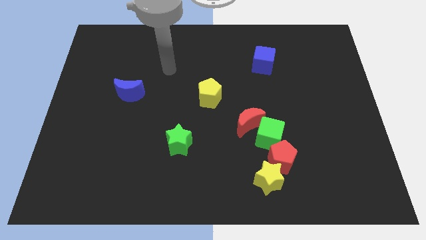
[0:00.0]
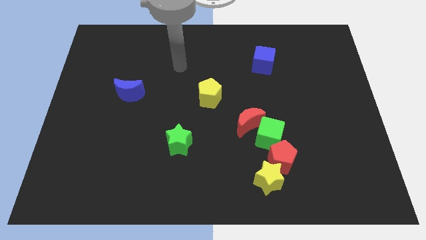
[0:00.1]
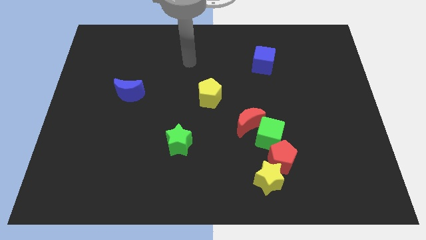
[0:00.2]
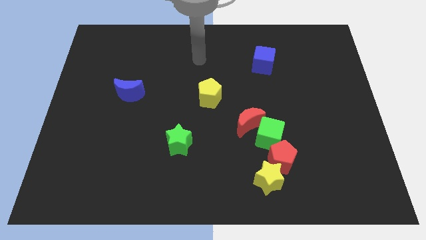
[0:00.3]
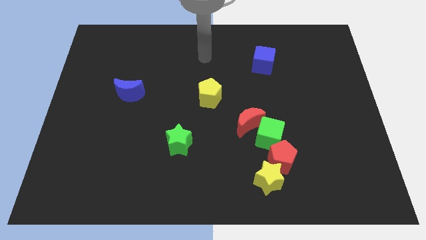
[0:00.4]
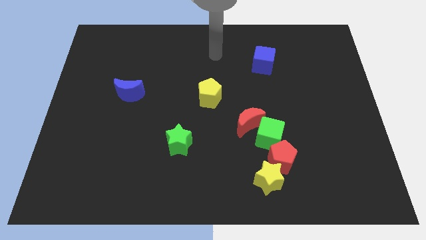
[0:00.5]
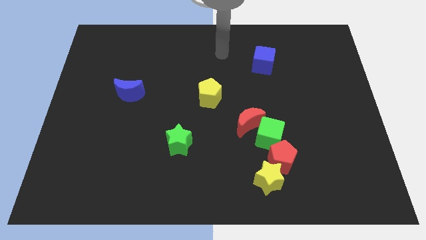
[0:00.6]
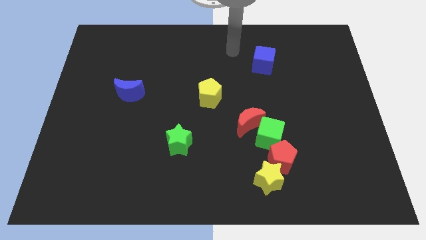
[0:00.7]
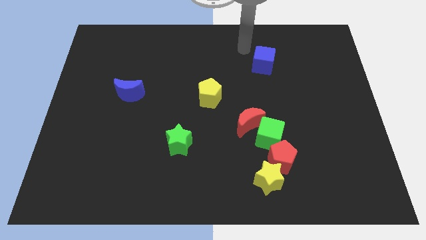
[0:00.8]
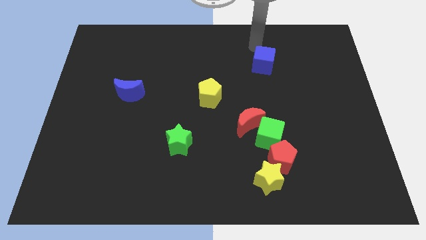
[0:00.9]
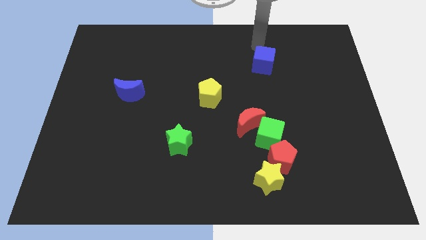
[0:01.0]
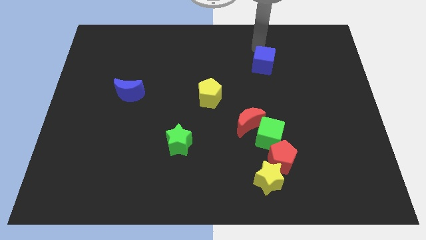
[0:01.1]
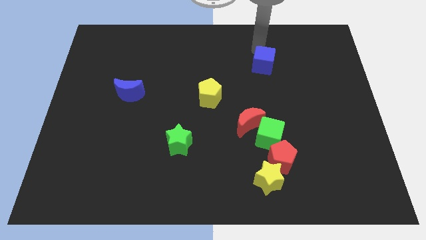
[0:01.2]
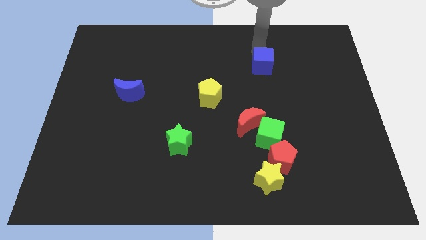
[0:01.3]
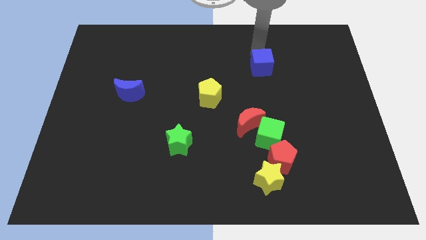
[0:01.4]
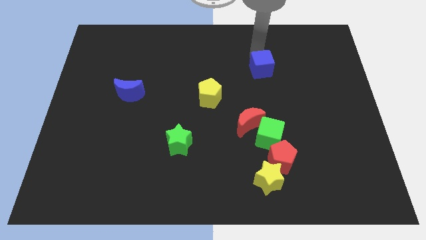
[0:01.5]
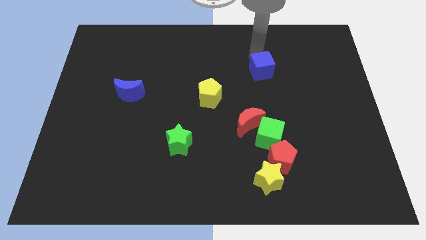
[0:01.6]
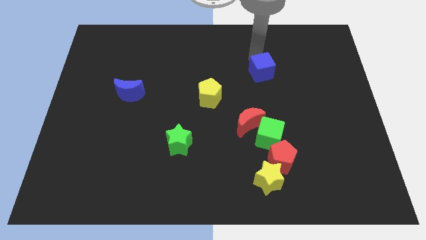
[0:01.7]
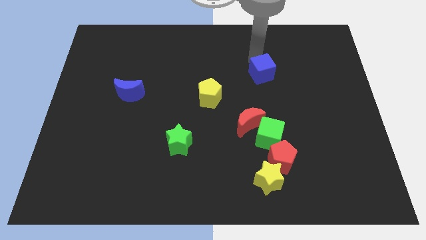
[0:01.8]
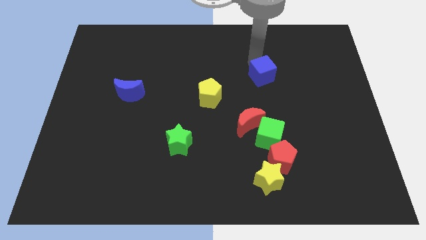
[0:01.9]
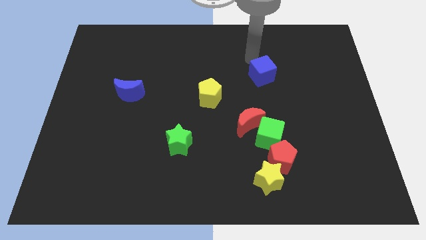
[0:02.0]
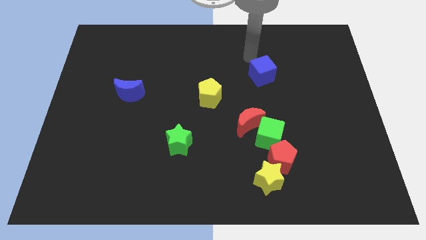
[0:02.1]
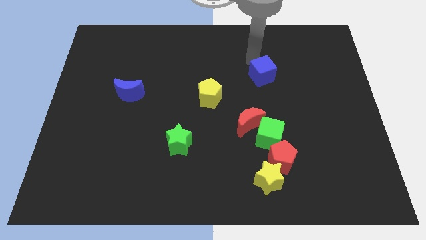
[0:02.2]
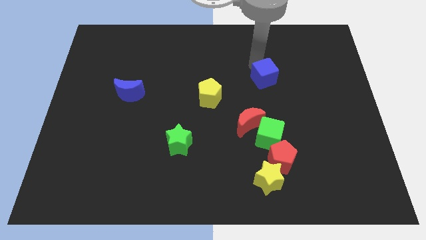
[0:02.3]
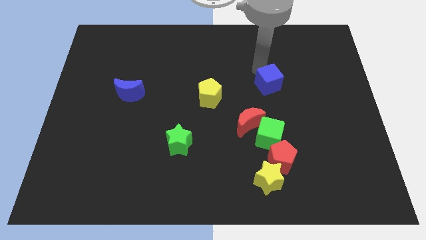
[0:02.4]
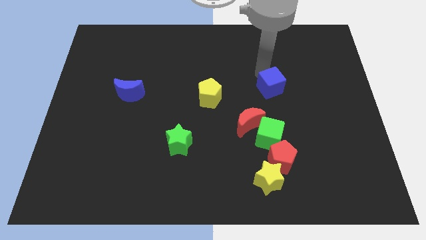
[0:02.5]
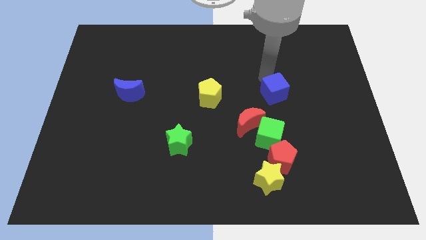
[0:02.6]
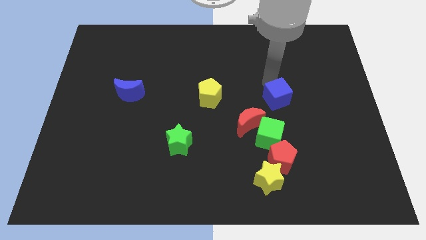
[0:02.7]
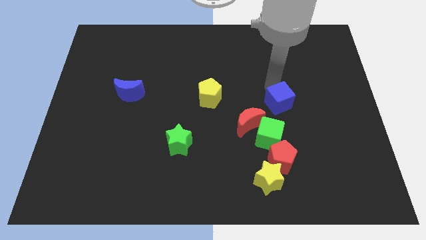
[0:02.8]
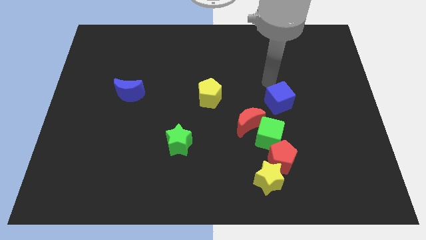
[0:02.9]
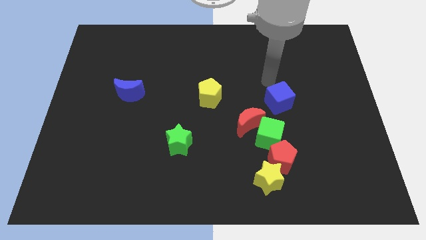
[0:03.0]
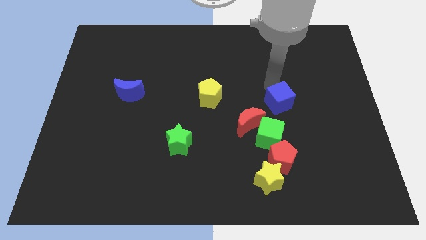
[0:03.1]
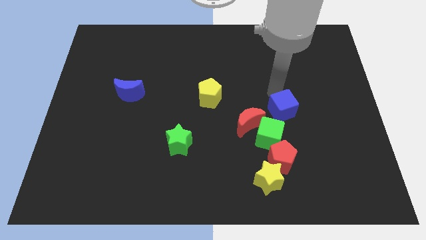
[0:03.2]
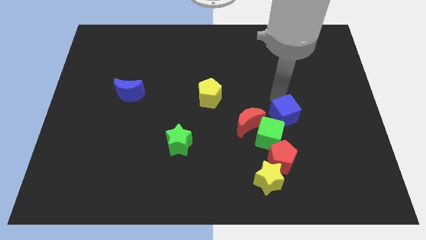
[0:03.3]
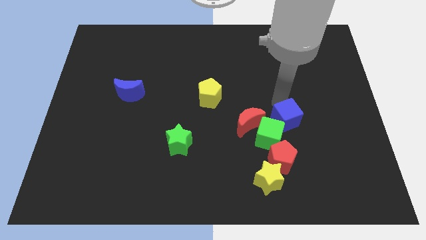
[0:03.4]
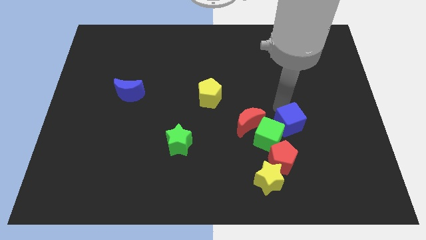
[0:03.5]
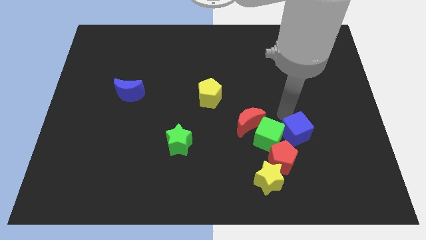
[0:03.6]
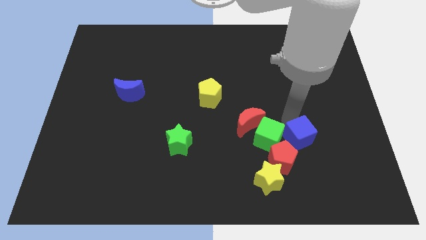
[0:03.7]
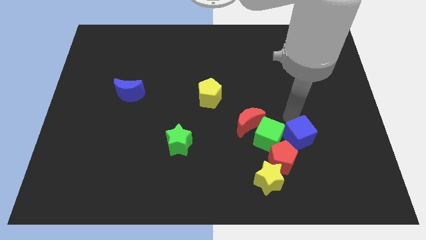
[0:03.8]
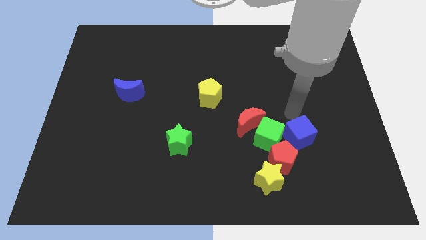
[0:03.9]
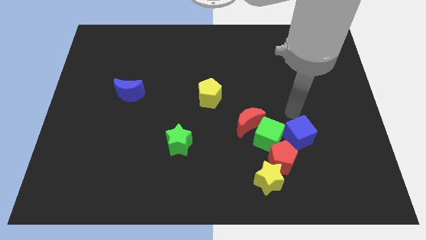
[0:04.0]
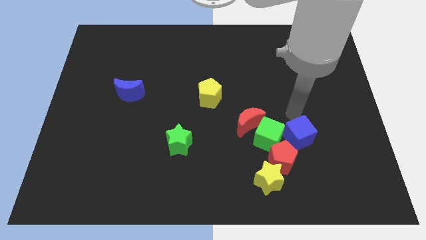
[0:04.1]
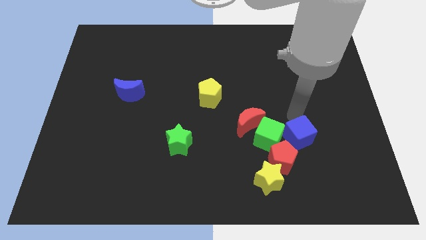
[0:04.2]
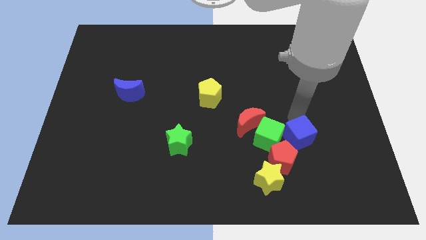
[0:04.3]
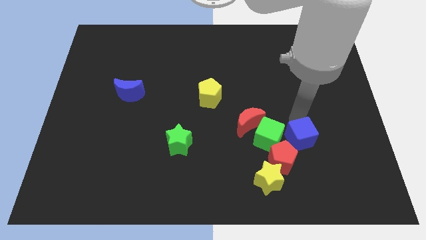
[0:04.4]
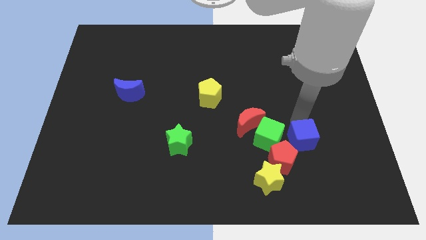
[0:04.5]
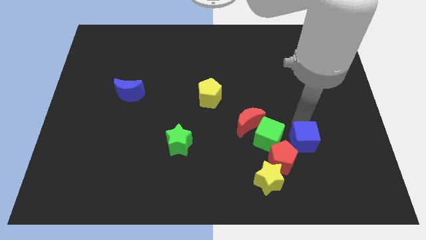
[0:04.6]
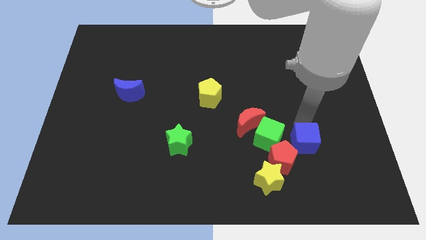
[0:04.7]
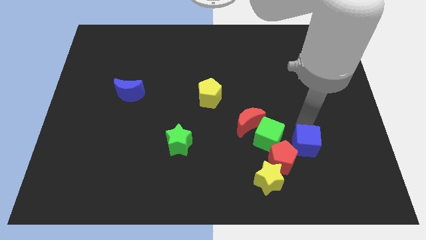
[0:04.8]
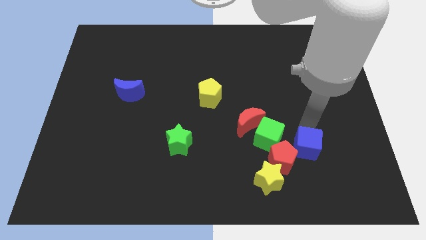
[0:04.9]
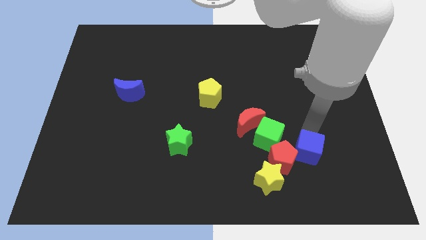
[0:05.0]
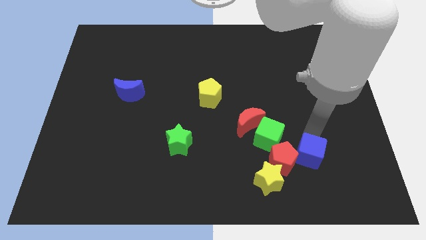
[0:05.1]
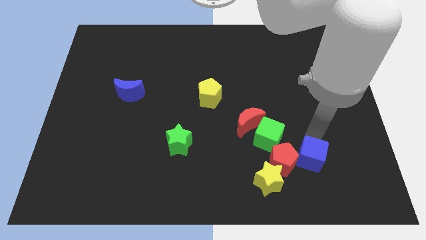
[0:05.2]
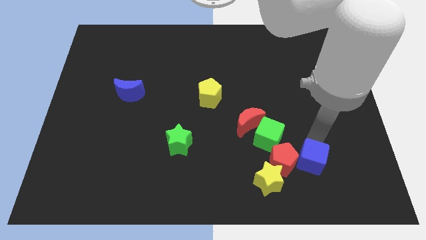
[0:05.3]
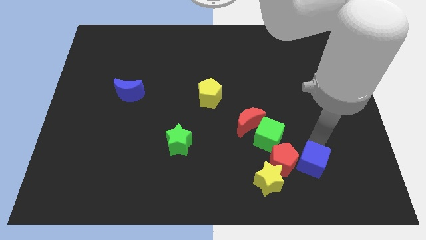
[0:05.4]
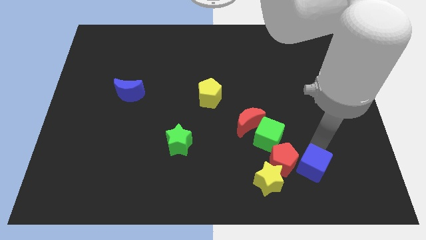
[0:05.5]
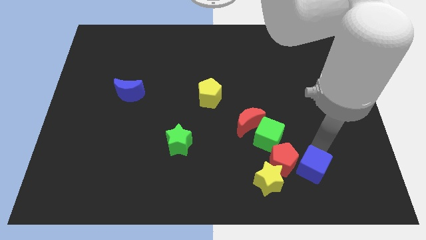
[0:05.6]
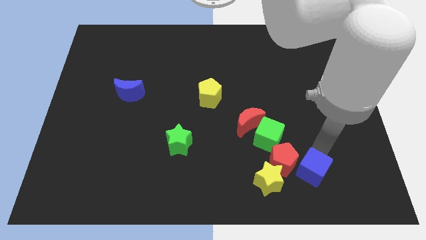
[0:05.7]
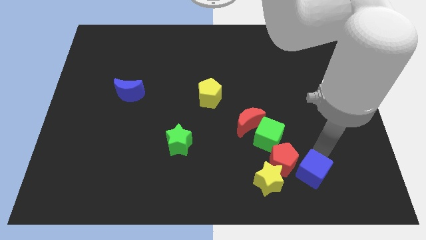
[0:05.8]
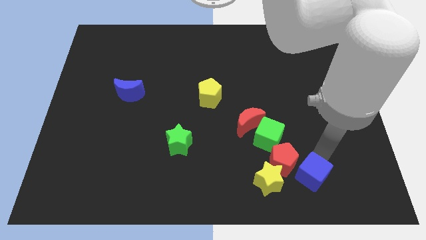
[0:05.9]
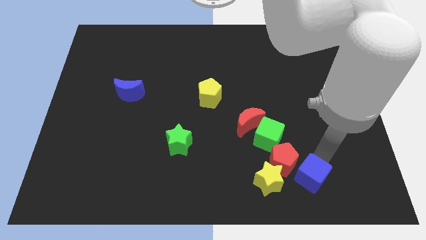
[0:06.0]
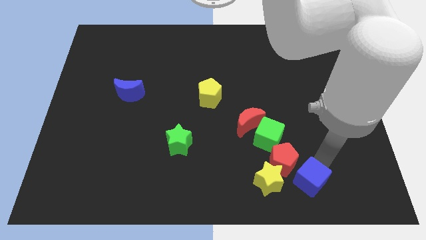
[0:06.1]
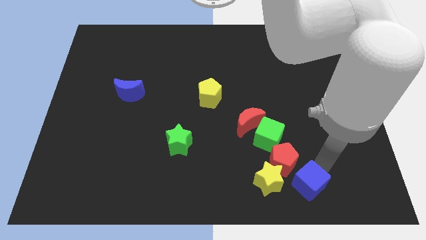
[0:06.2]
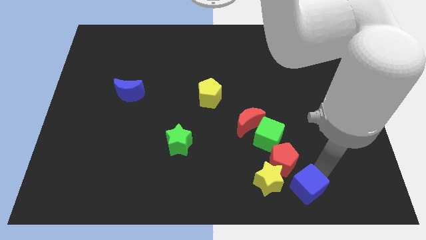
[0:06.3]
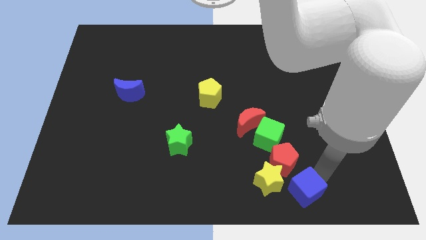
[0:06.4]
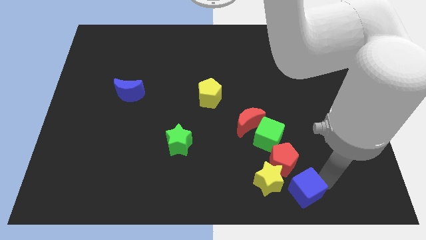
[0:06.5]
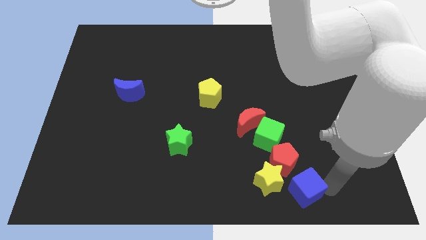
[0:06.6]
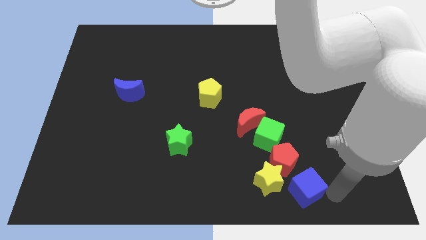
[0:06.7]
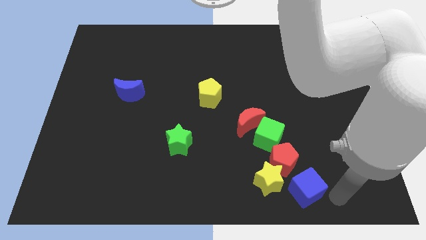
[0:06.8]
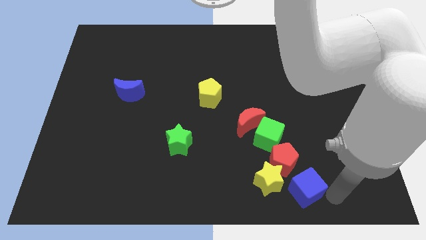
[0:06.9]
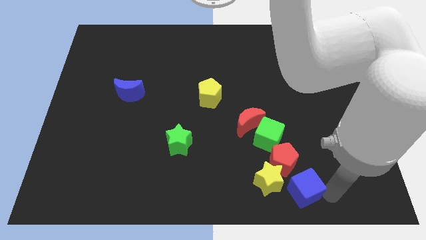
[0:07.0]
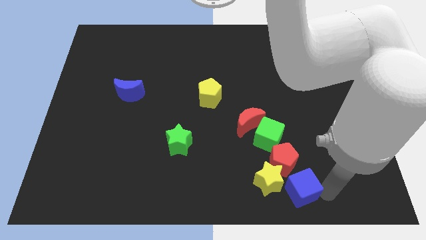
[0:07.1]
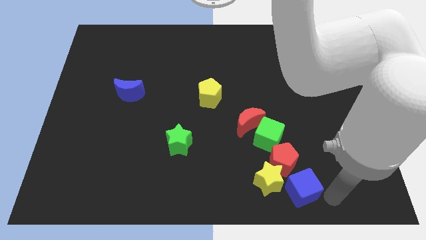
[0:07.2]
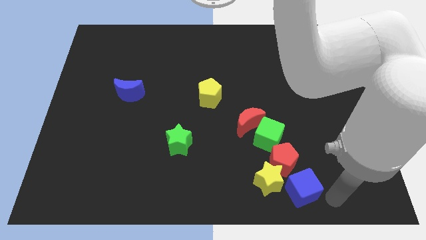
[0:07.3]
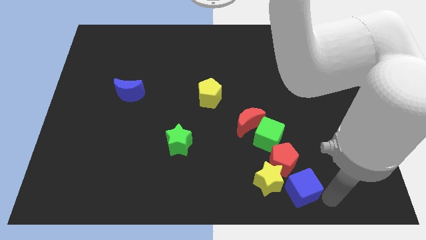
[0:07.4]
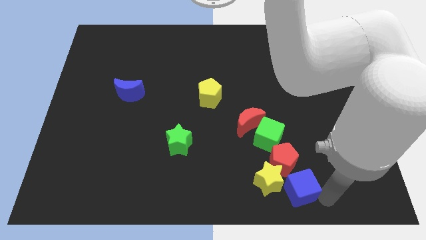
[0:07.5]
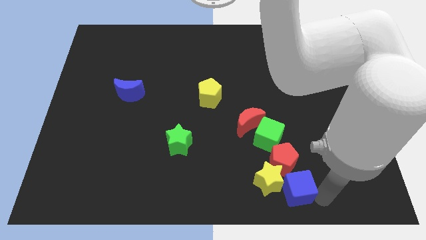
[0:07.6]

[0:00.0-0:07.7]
put the blue cube towards the yellow star
